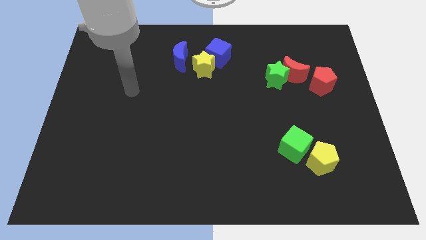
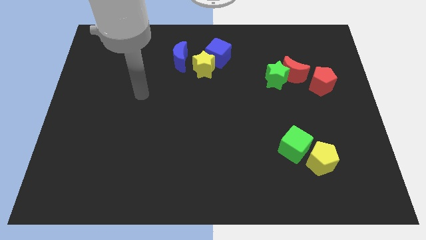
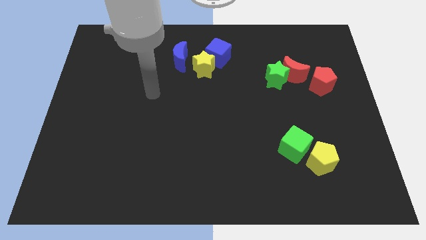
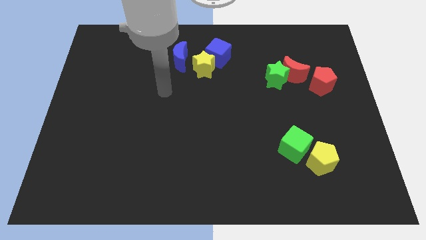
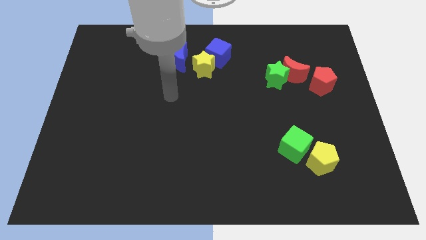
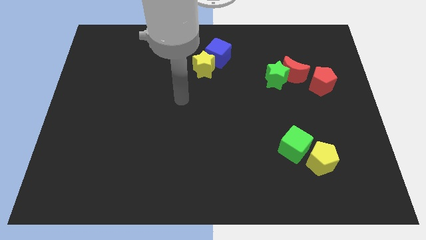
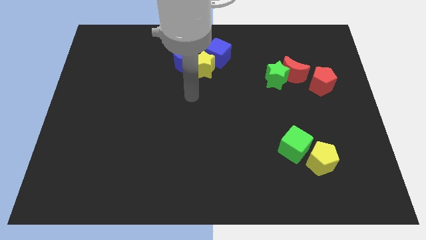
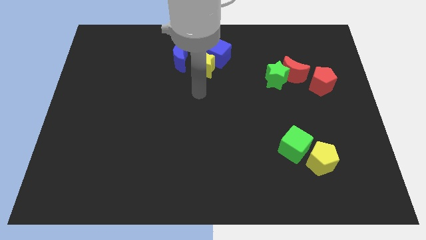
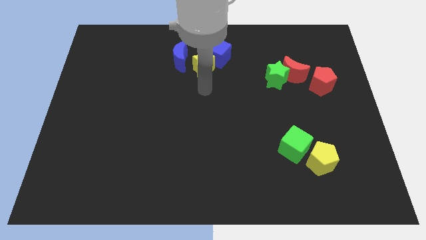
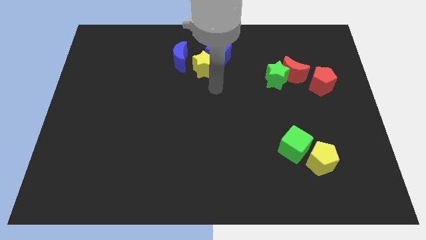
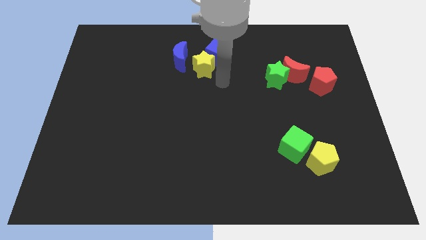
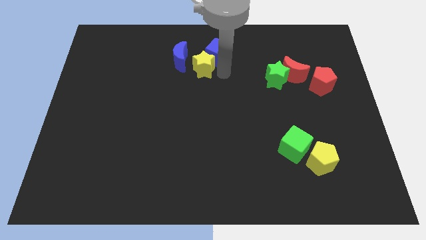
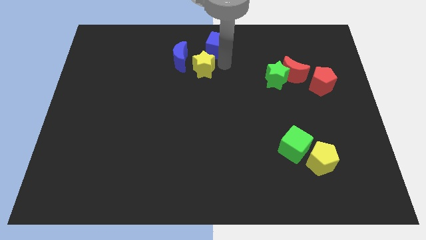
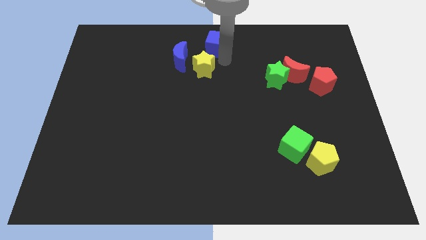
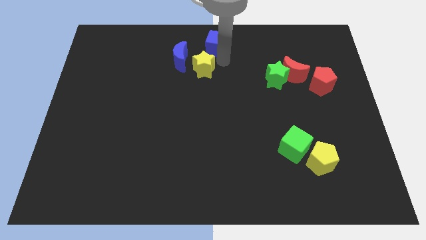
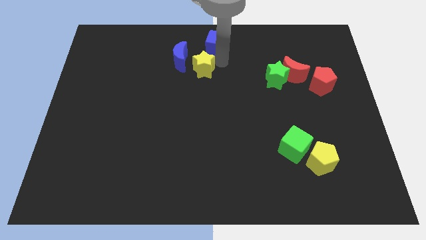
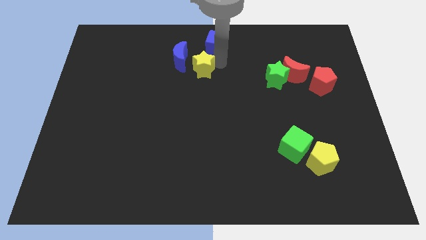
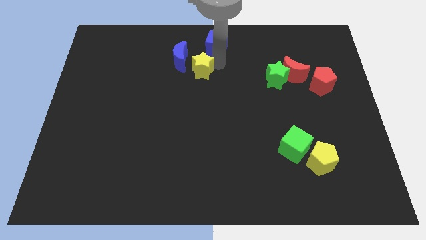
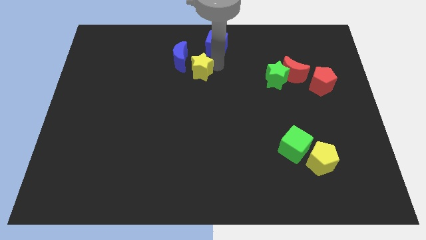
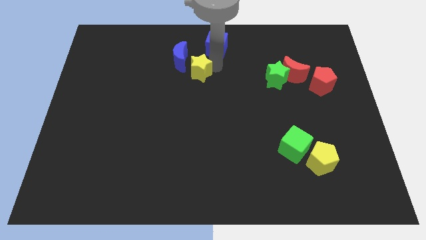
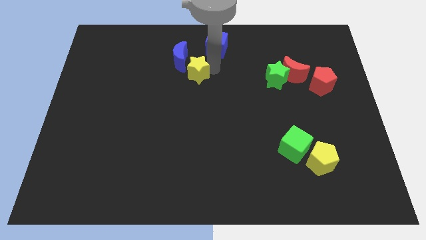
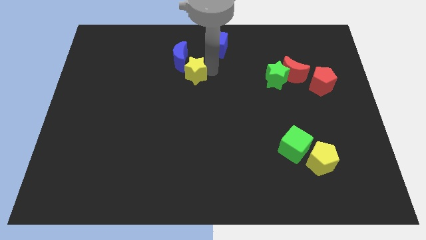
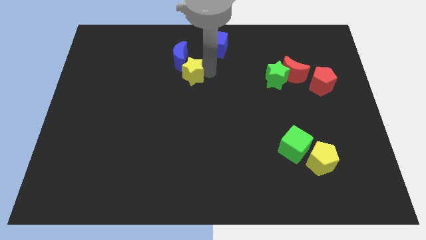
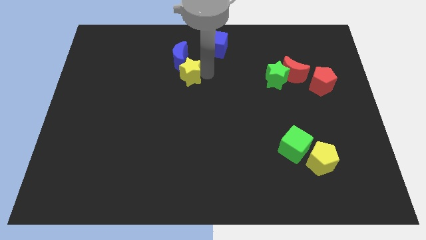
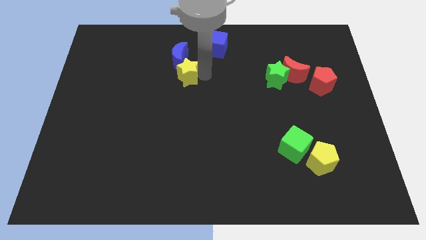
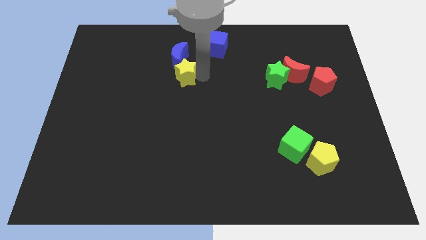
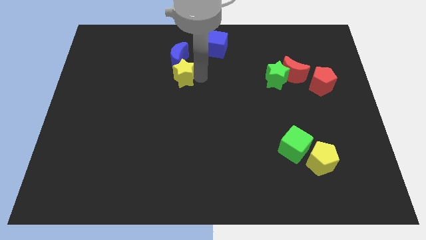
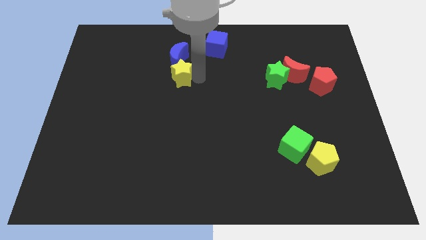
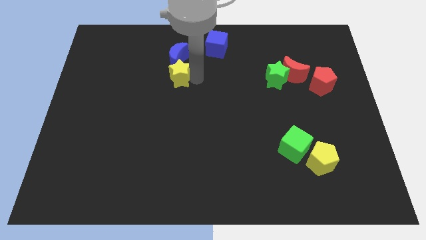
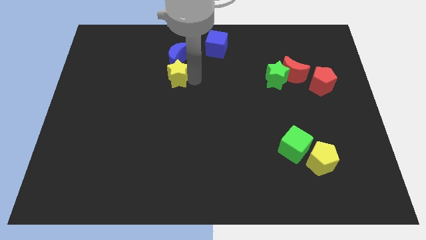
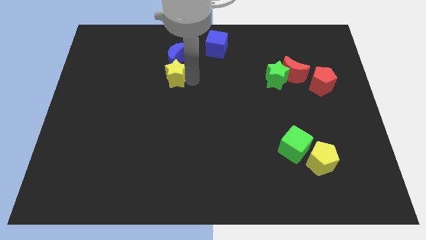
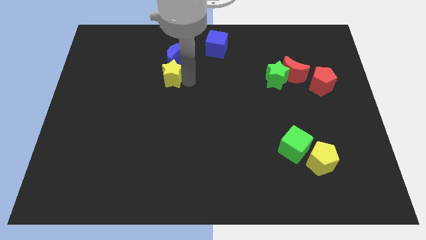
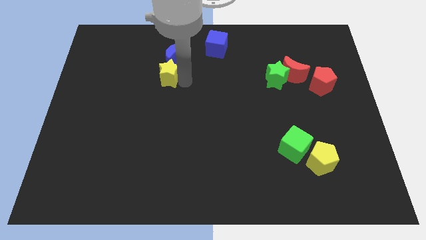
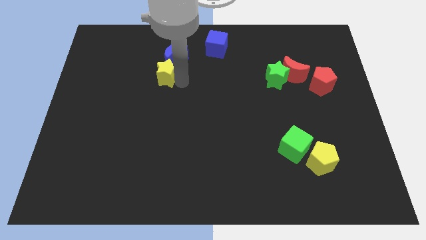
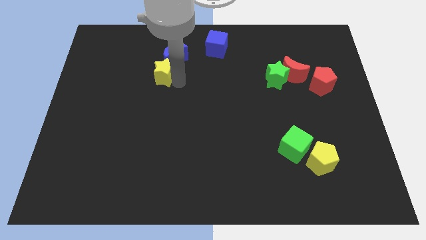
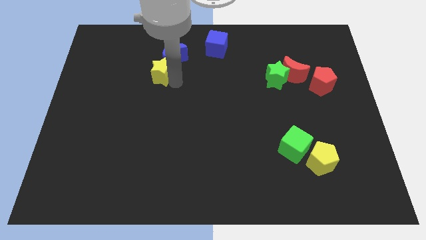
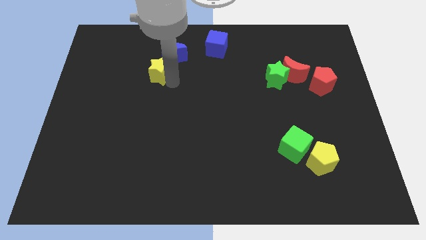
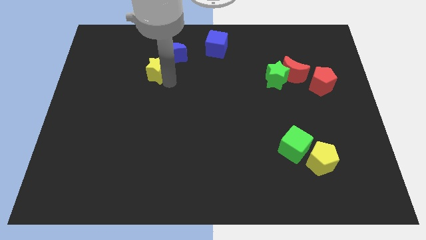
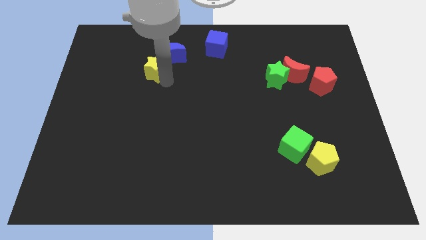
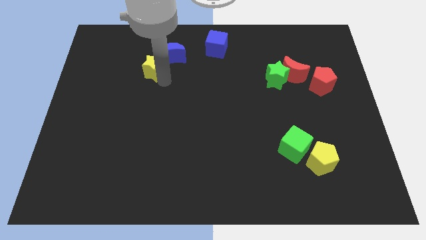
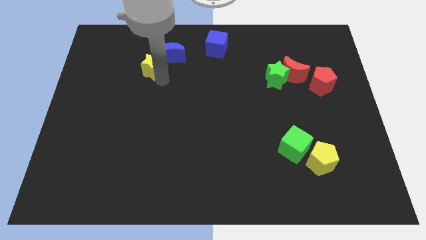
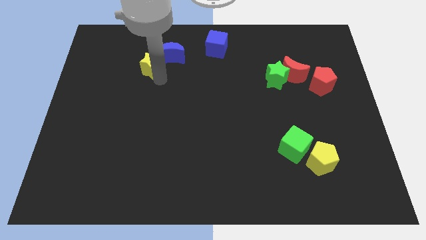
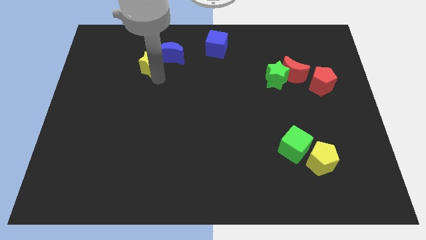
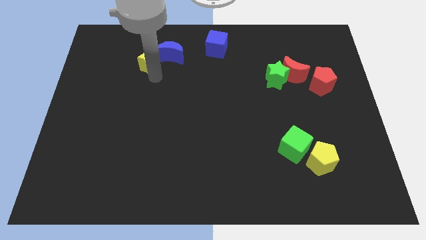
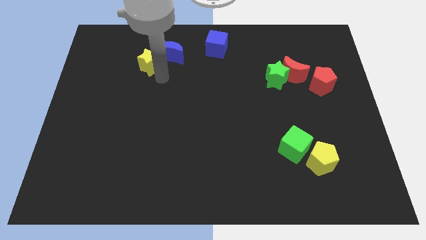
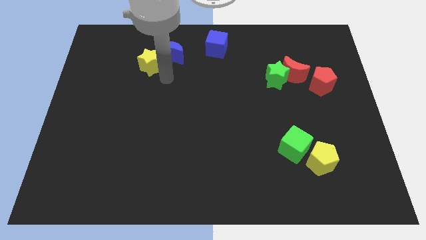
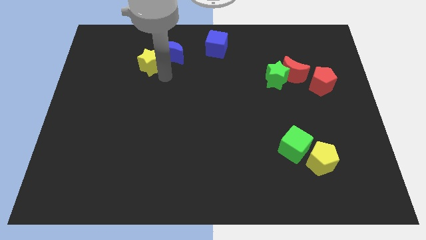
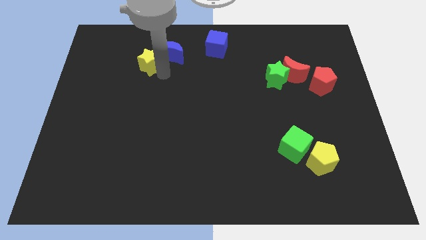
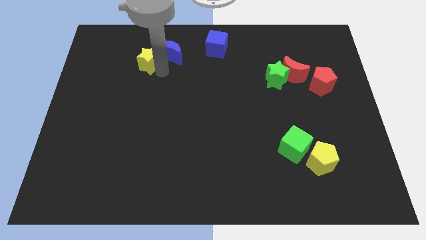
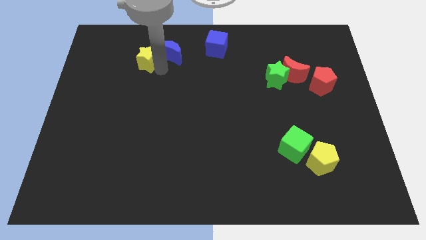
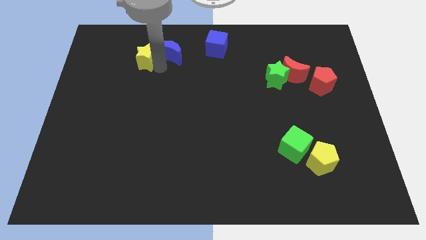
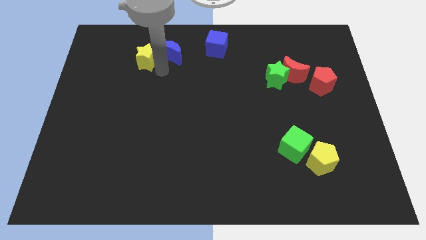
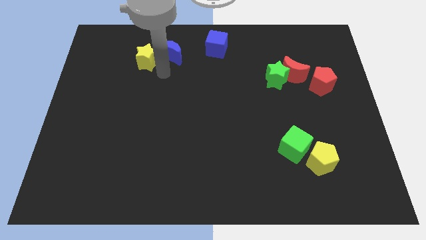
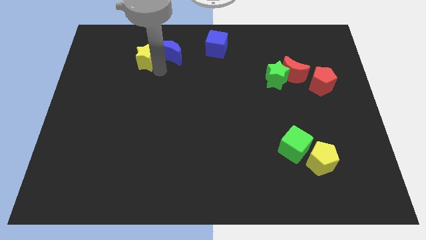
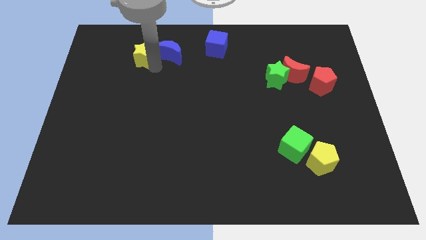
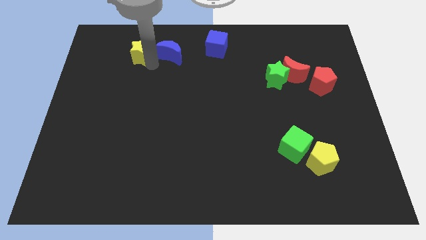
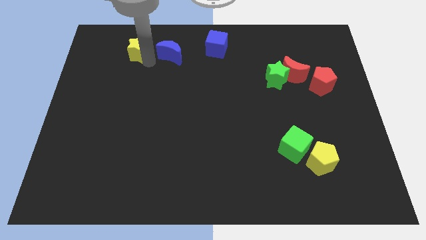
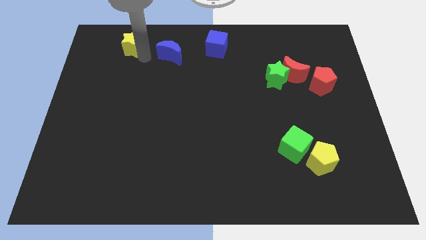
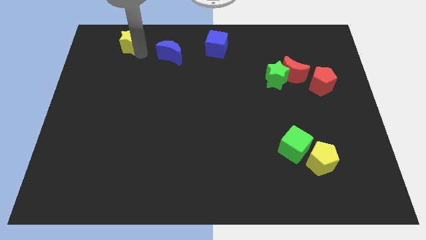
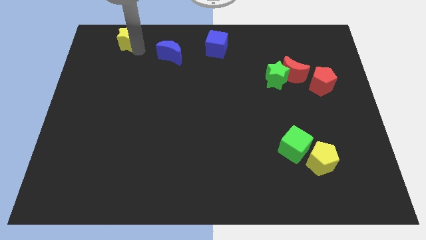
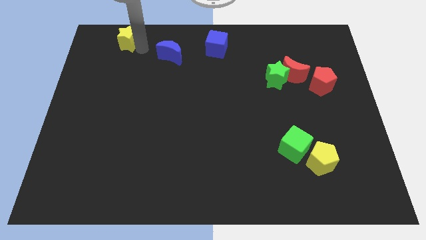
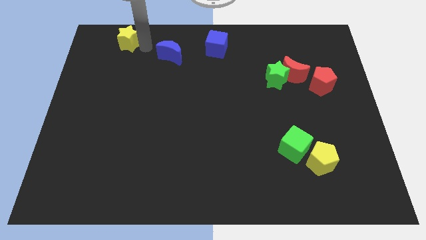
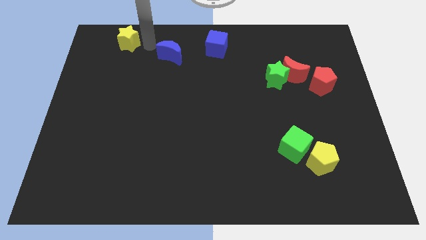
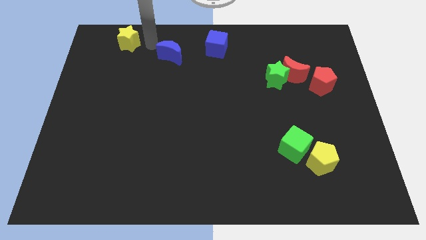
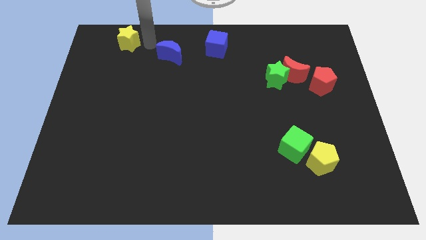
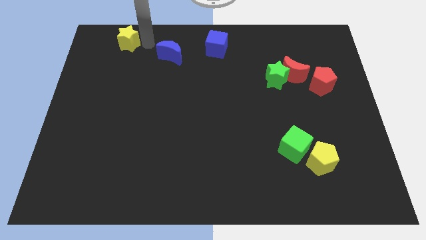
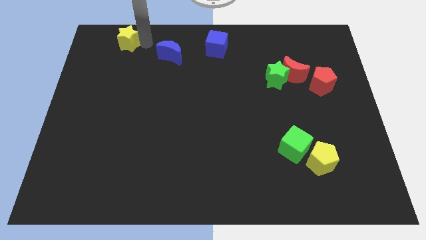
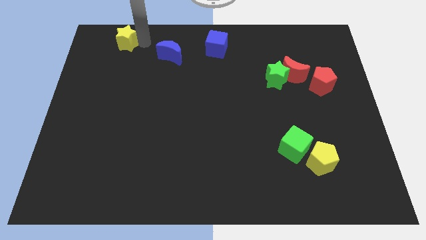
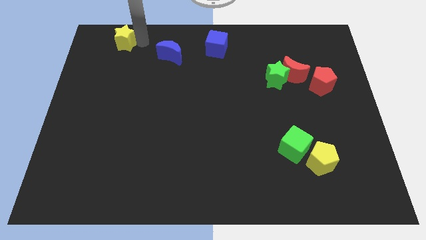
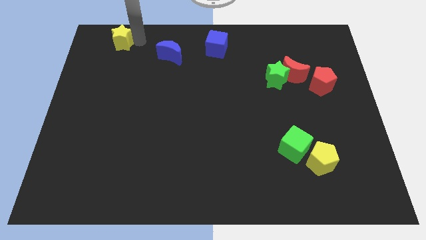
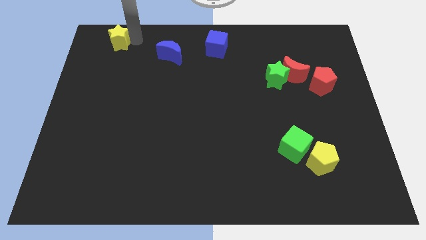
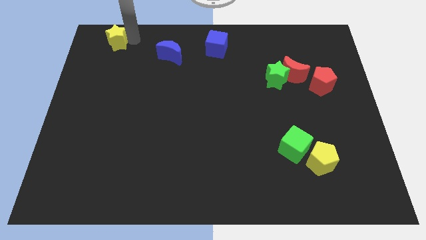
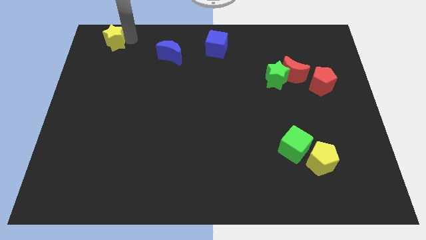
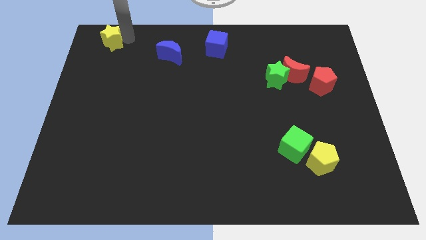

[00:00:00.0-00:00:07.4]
slide the yellow star to the top left of the board
